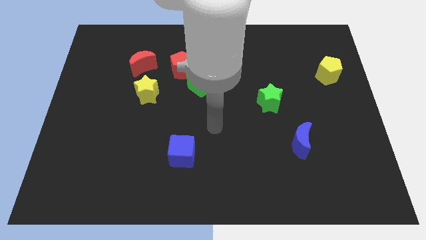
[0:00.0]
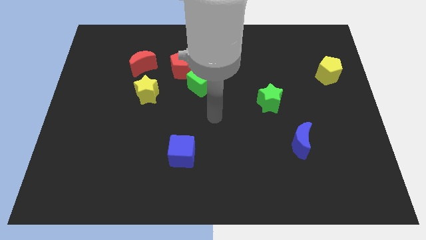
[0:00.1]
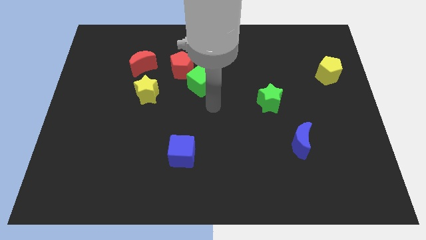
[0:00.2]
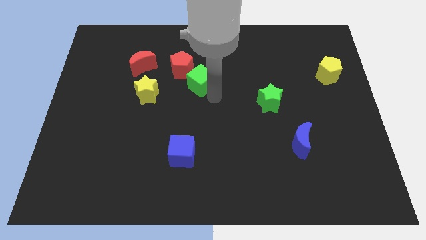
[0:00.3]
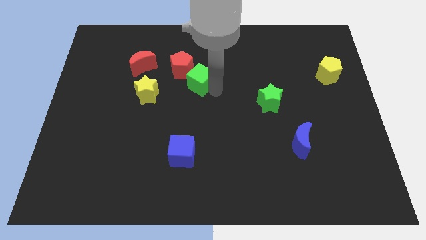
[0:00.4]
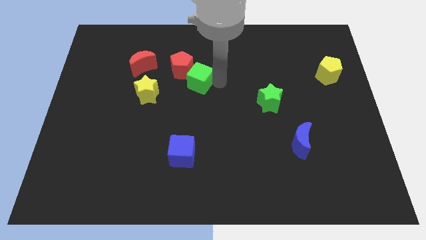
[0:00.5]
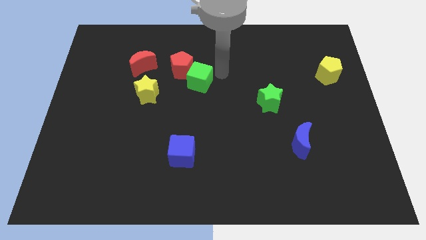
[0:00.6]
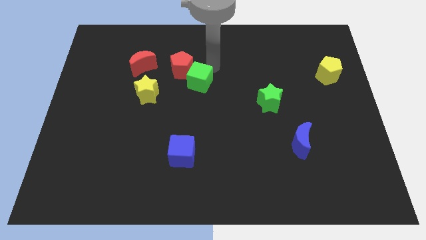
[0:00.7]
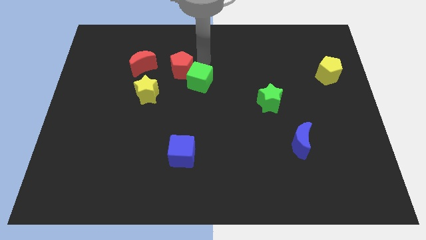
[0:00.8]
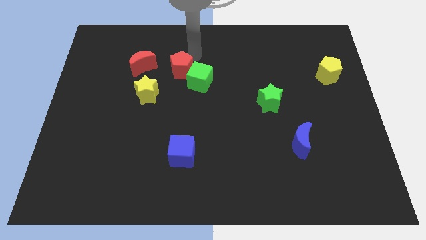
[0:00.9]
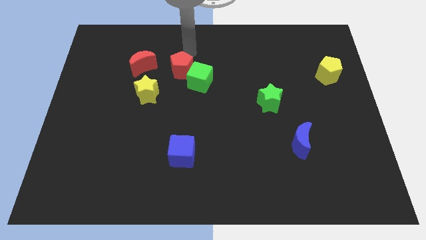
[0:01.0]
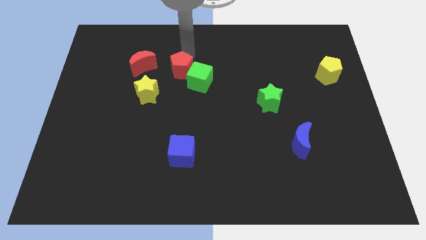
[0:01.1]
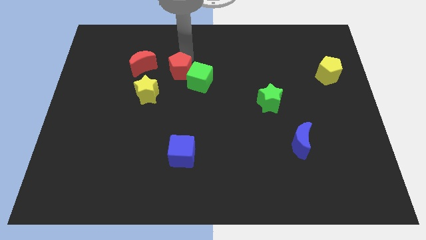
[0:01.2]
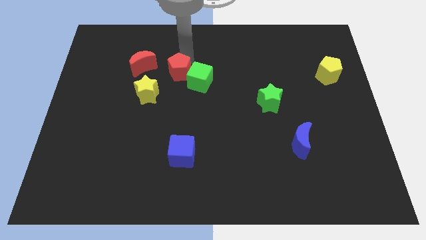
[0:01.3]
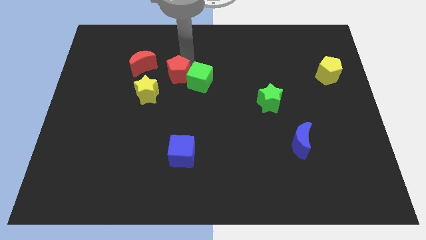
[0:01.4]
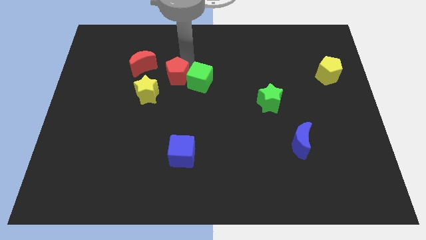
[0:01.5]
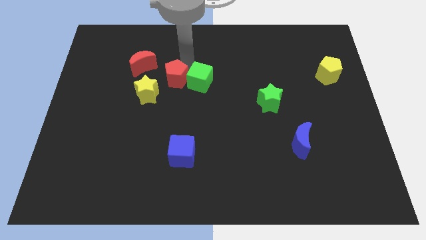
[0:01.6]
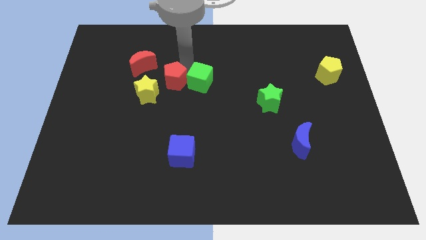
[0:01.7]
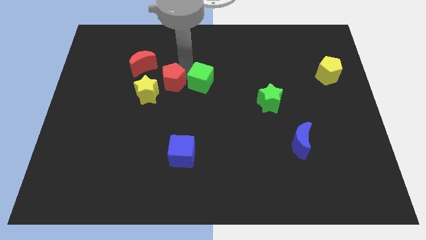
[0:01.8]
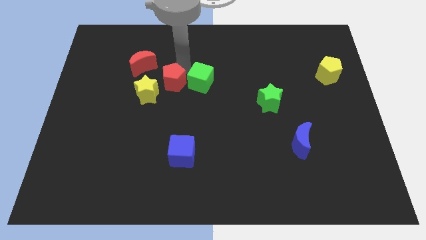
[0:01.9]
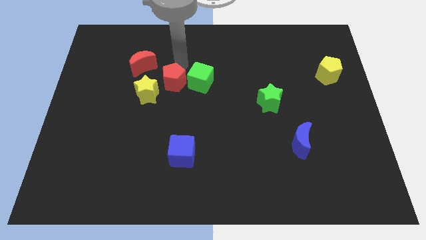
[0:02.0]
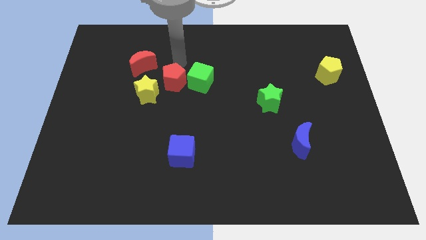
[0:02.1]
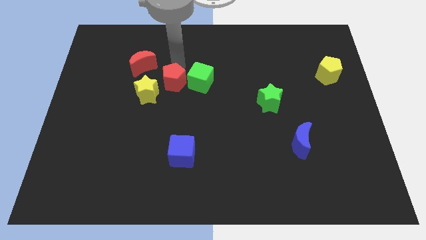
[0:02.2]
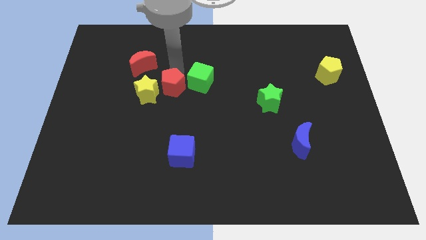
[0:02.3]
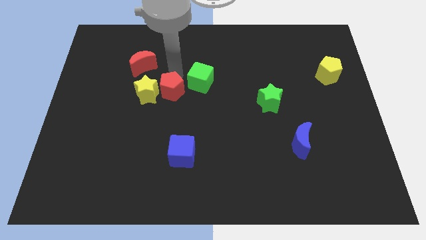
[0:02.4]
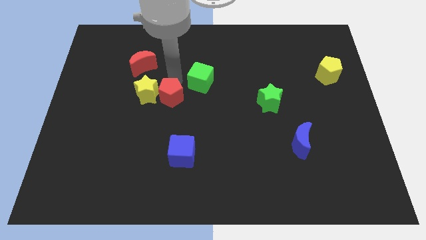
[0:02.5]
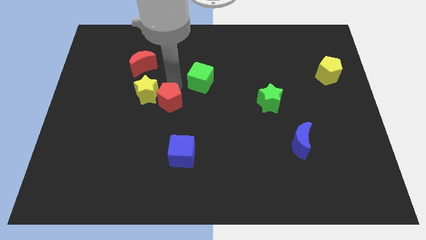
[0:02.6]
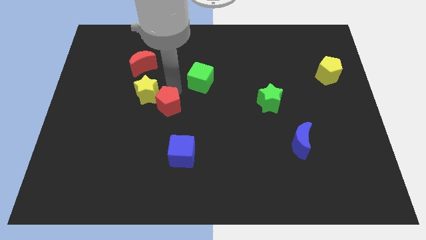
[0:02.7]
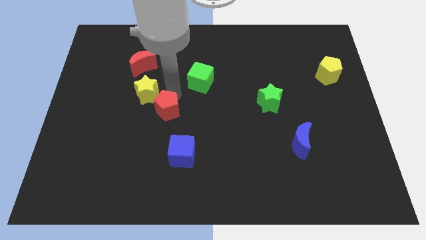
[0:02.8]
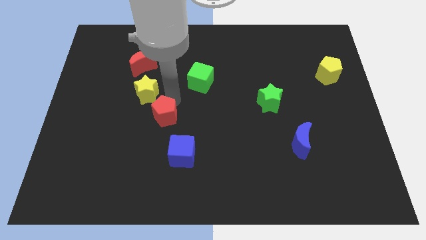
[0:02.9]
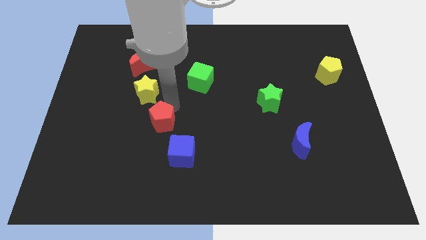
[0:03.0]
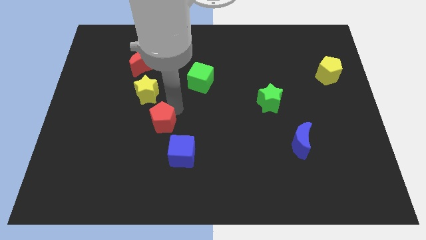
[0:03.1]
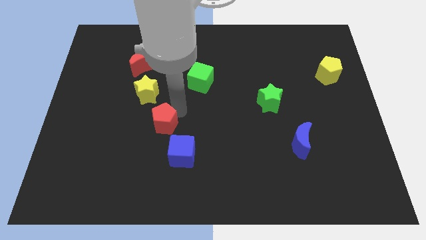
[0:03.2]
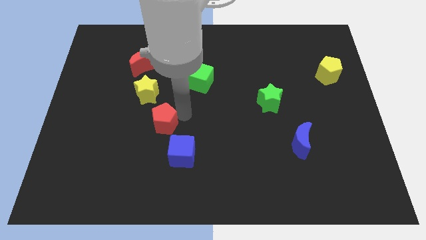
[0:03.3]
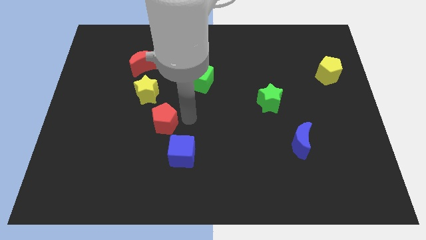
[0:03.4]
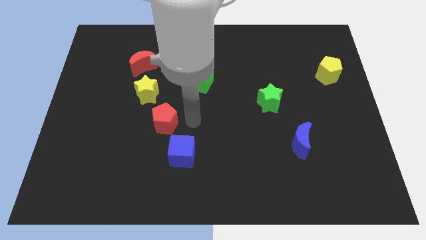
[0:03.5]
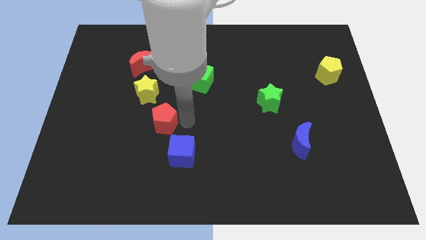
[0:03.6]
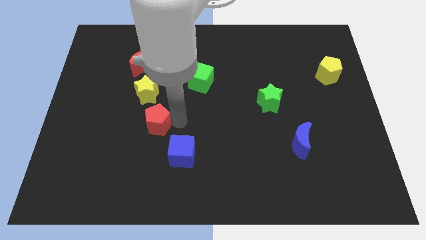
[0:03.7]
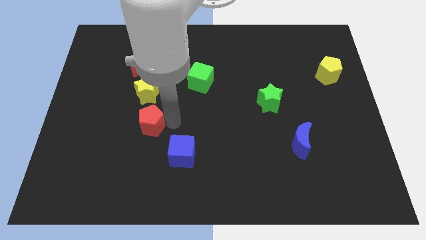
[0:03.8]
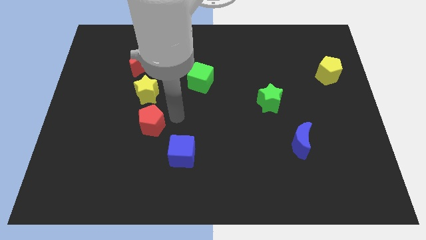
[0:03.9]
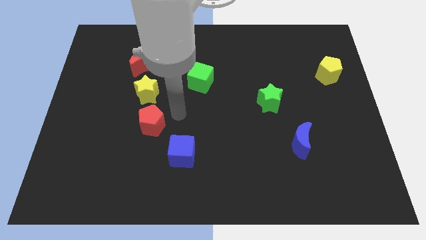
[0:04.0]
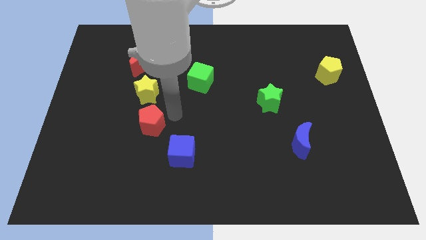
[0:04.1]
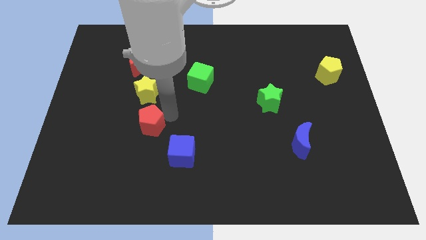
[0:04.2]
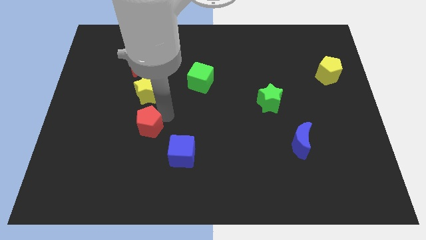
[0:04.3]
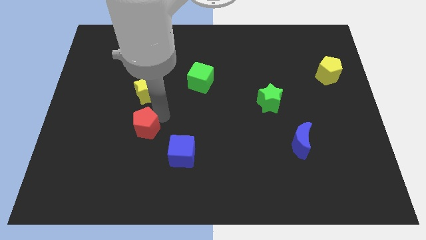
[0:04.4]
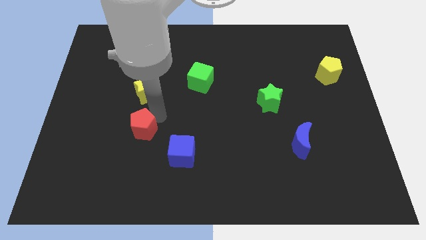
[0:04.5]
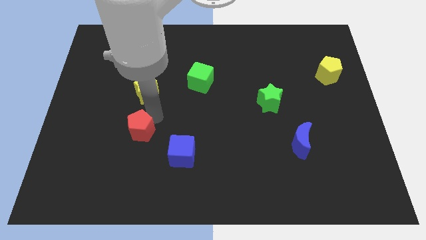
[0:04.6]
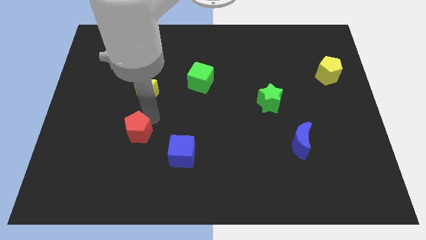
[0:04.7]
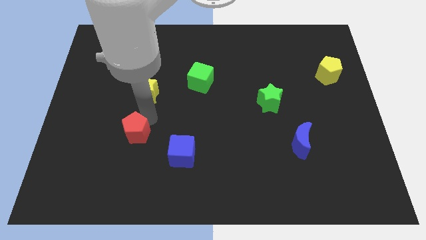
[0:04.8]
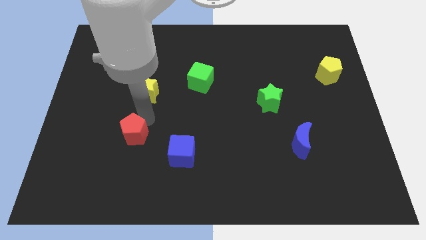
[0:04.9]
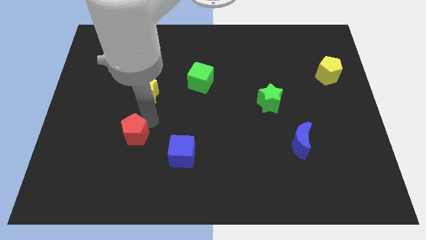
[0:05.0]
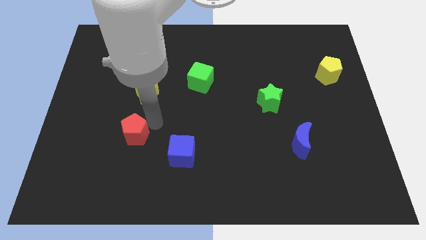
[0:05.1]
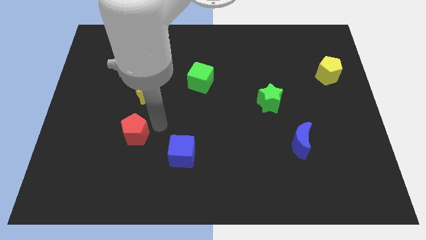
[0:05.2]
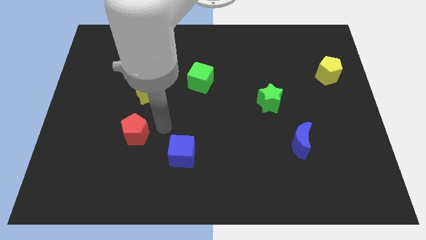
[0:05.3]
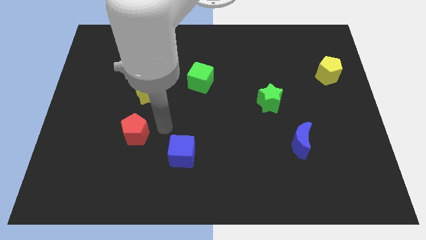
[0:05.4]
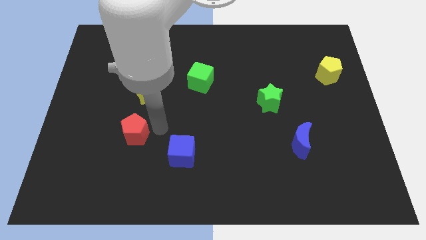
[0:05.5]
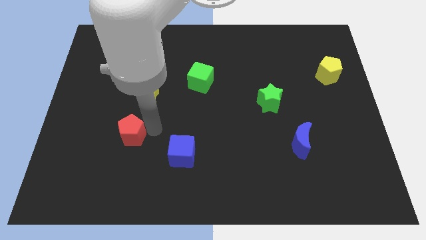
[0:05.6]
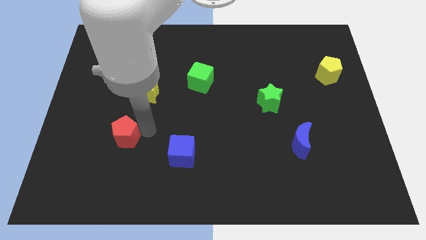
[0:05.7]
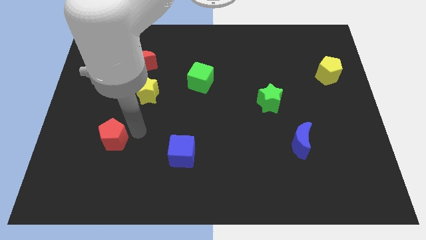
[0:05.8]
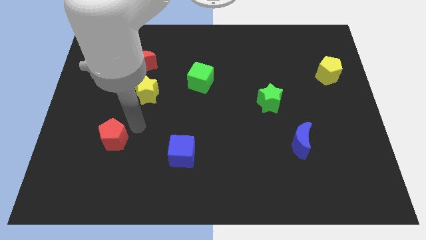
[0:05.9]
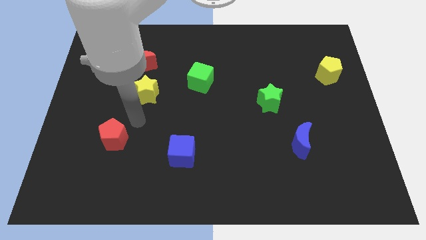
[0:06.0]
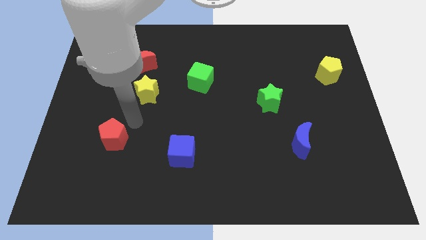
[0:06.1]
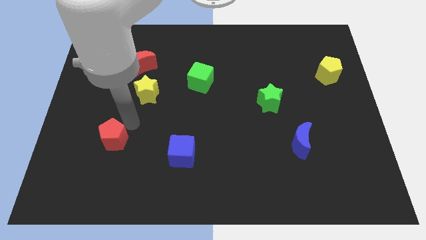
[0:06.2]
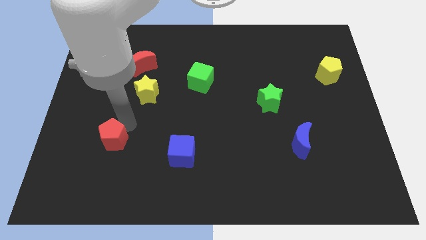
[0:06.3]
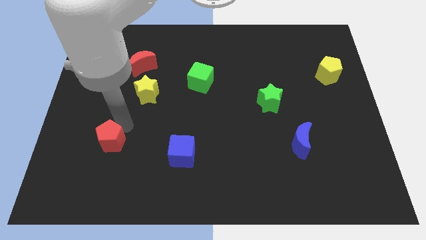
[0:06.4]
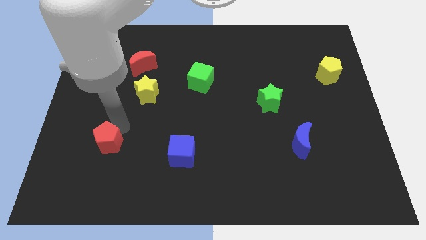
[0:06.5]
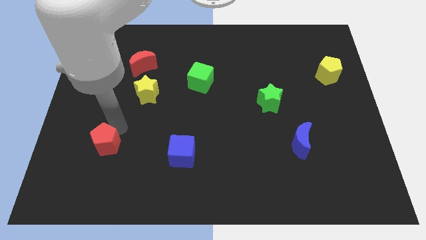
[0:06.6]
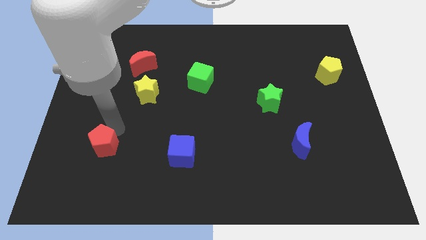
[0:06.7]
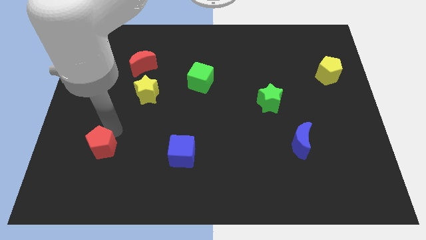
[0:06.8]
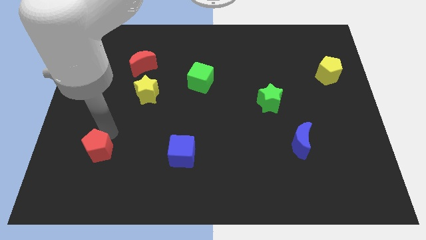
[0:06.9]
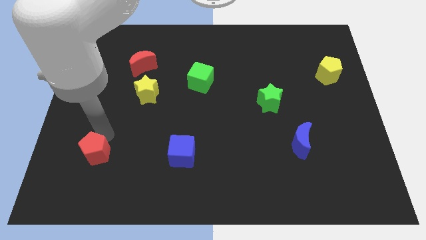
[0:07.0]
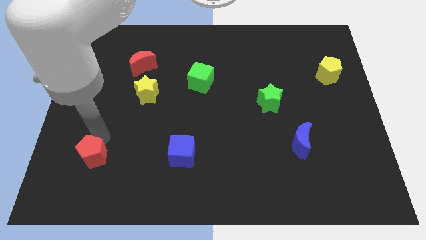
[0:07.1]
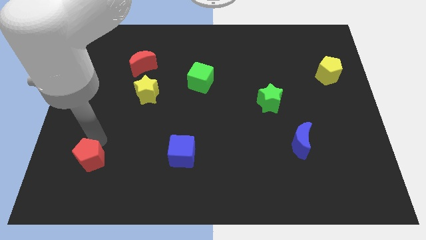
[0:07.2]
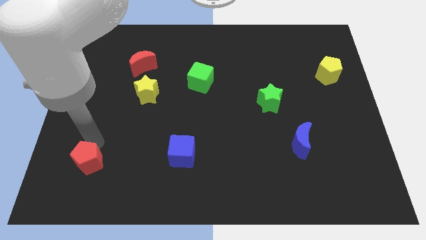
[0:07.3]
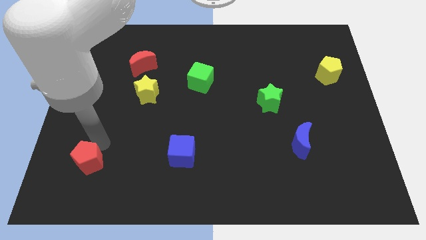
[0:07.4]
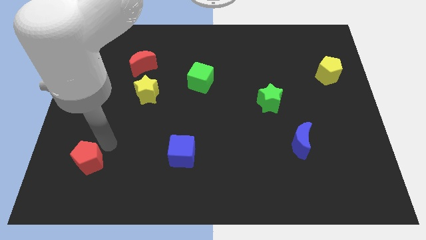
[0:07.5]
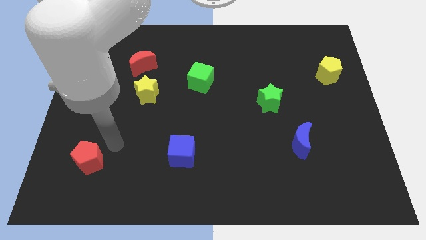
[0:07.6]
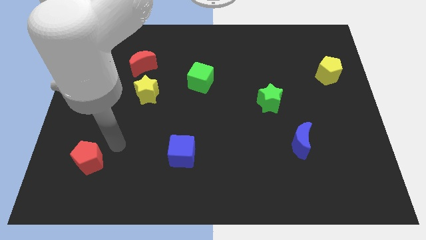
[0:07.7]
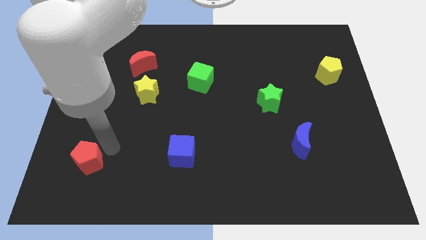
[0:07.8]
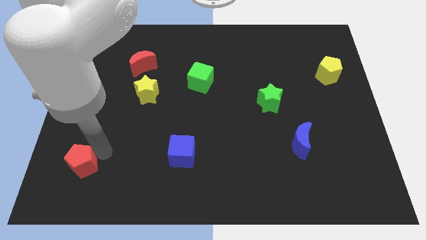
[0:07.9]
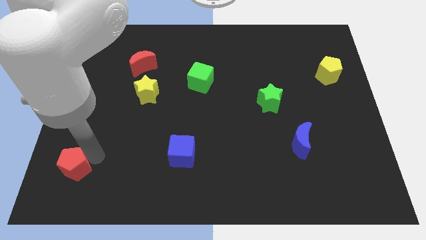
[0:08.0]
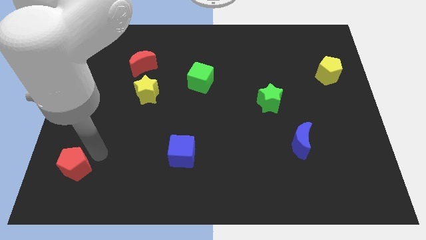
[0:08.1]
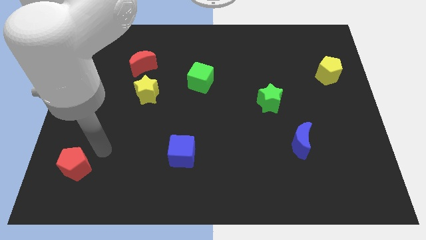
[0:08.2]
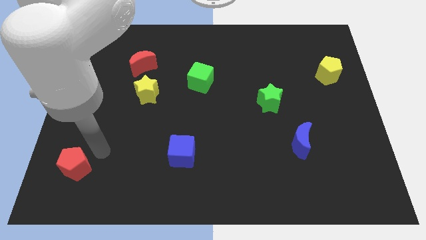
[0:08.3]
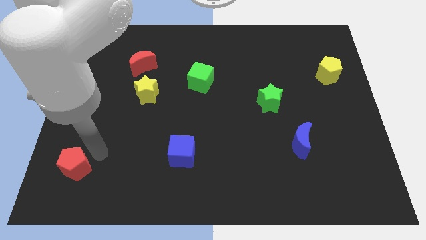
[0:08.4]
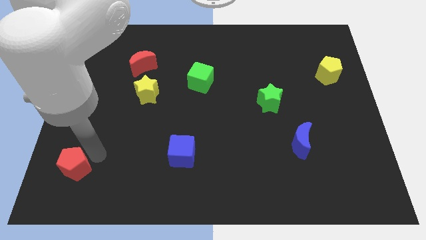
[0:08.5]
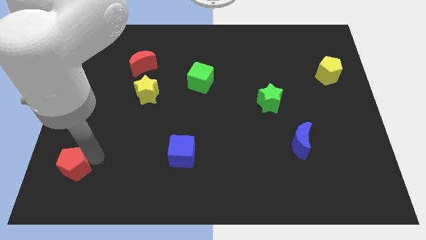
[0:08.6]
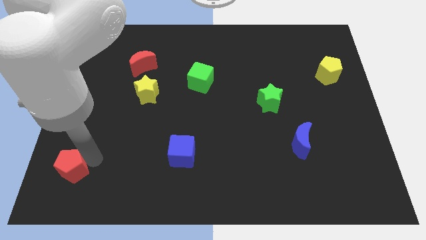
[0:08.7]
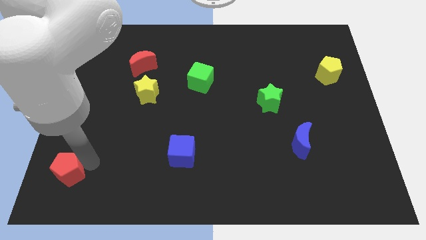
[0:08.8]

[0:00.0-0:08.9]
slide the red pentagon to the bottom left corner
